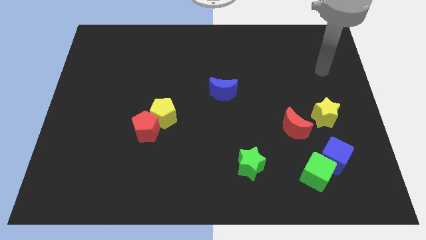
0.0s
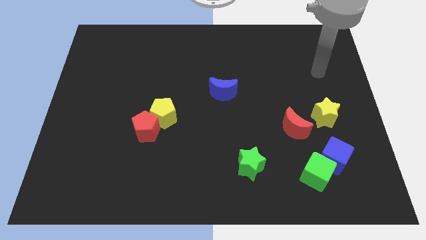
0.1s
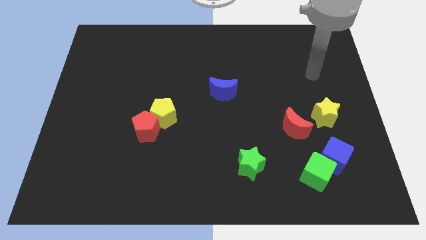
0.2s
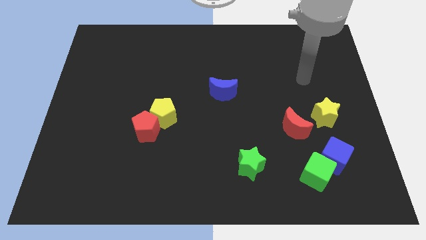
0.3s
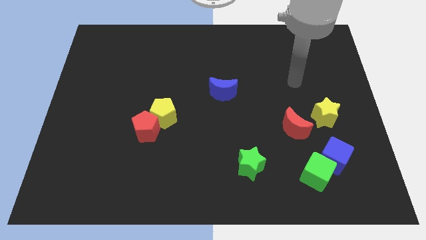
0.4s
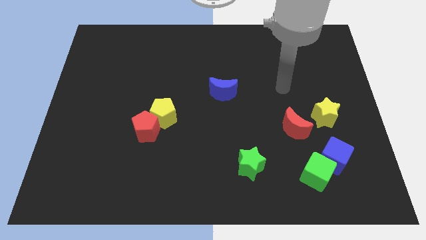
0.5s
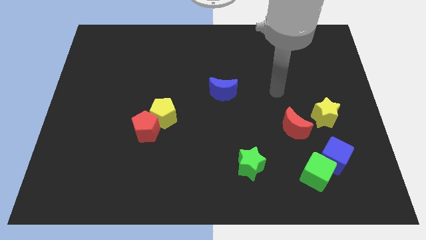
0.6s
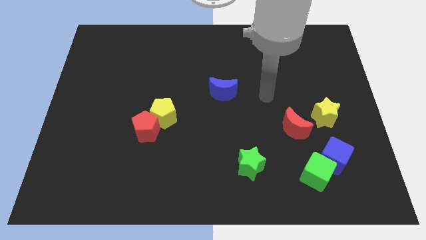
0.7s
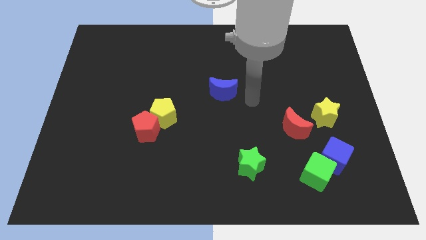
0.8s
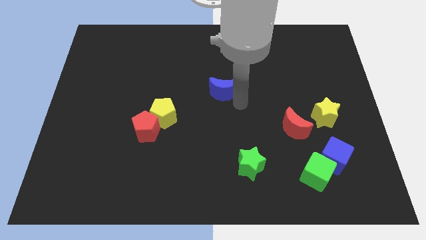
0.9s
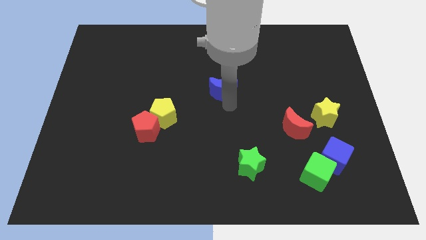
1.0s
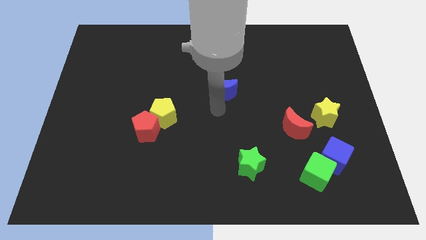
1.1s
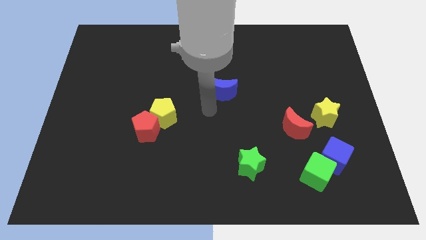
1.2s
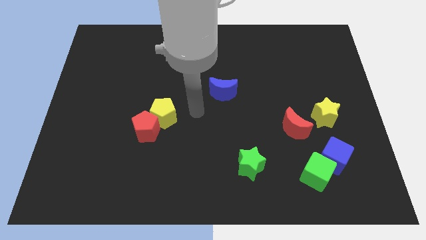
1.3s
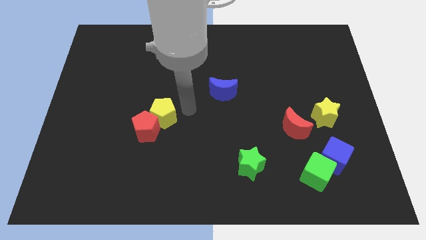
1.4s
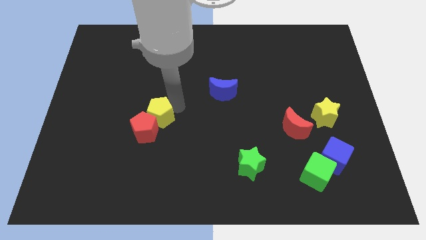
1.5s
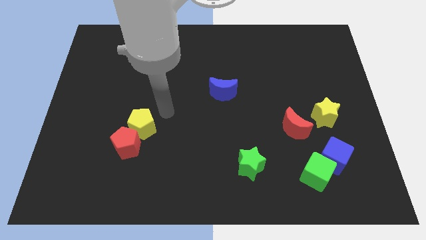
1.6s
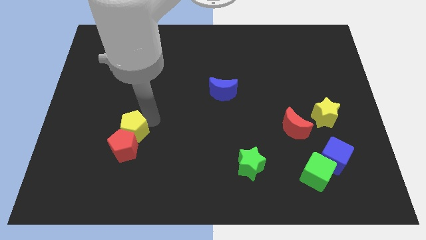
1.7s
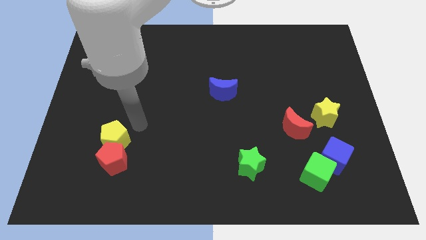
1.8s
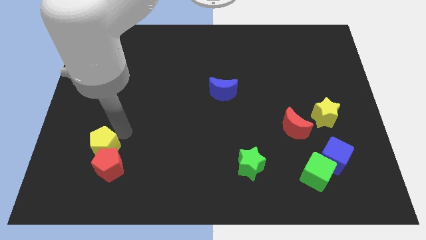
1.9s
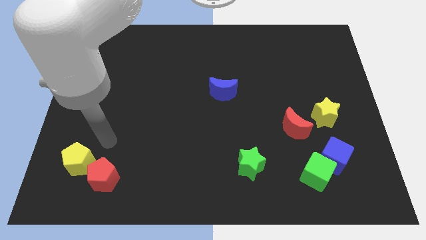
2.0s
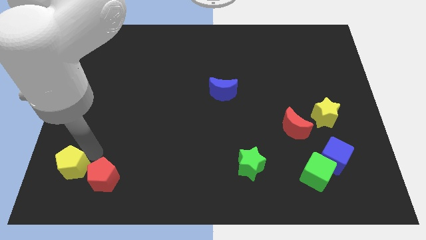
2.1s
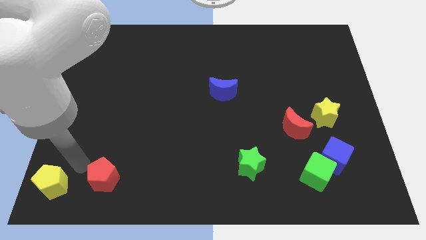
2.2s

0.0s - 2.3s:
separate the red pentagon from the yellow pentagon

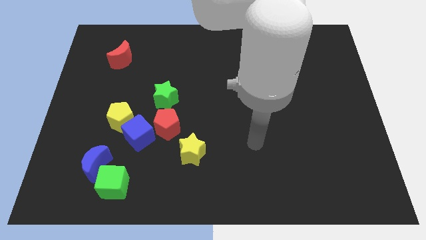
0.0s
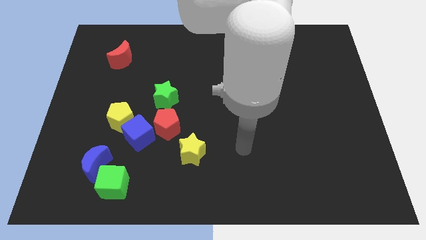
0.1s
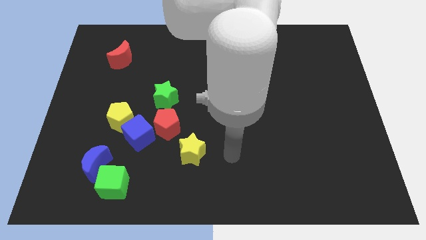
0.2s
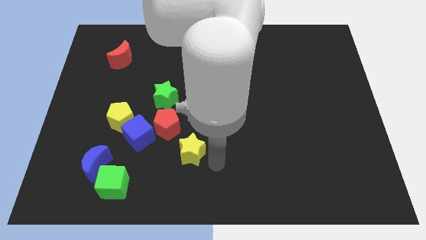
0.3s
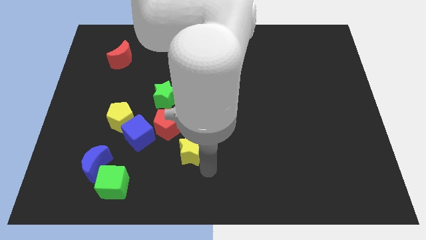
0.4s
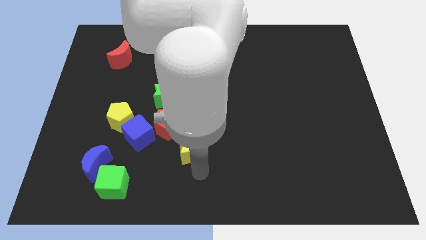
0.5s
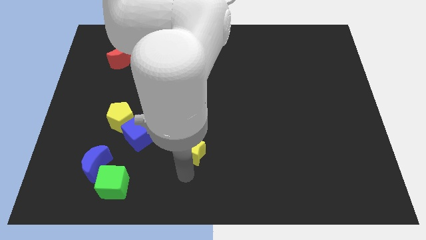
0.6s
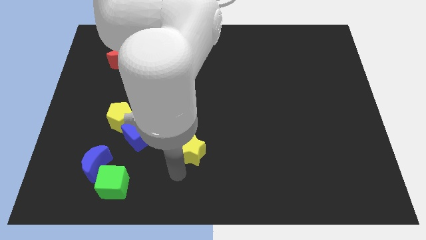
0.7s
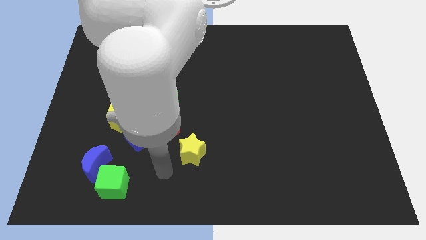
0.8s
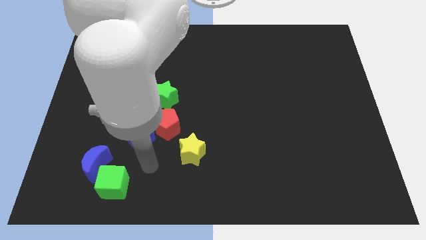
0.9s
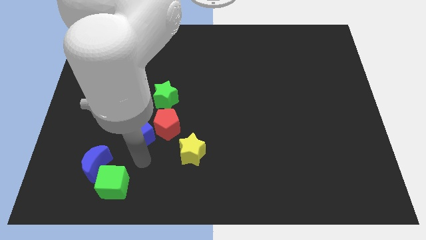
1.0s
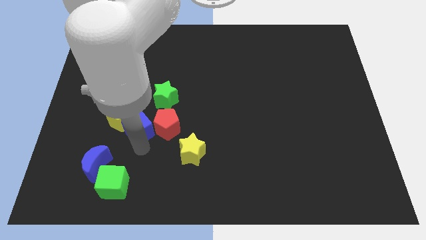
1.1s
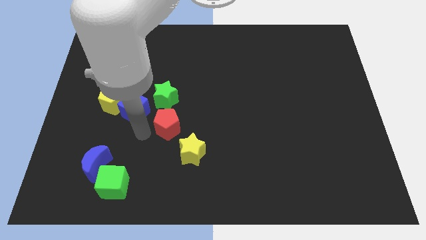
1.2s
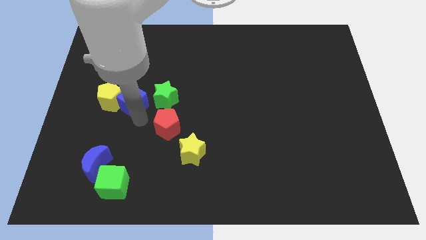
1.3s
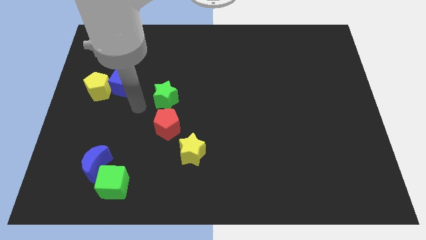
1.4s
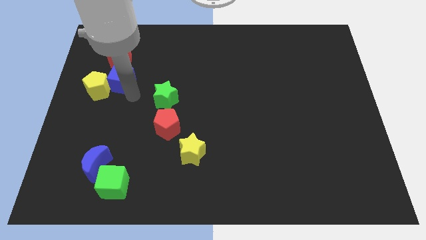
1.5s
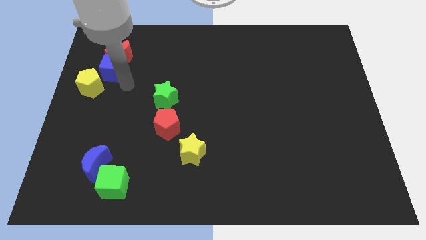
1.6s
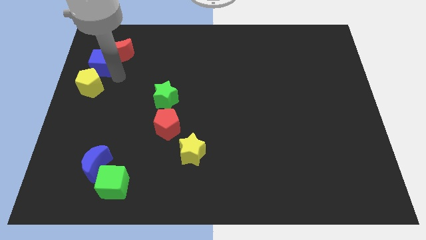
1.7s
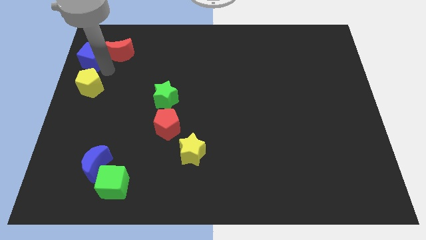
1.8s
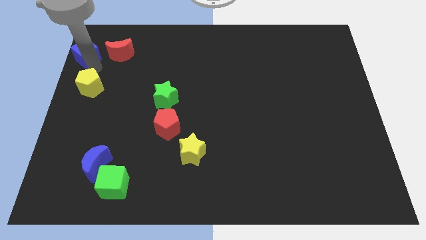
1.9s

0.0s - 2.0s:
pull the yellow pentagon apart from the blue cube

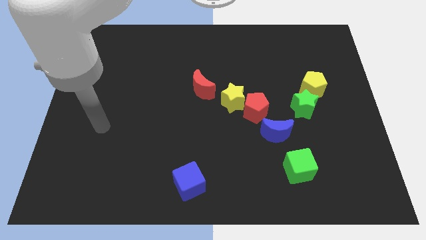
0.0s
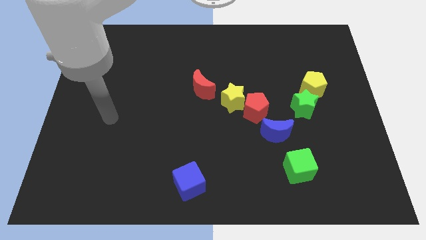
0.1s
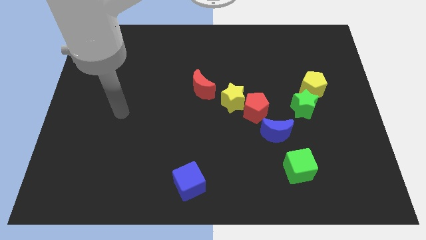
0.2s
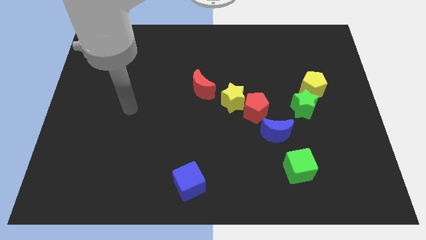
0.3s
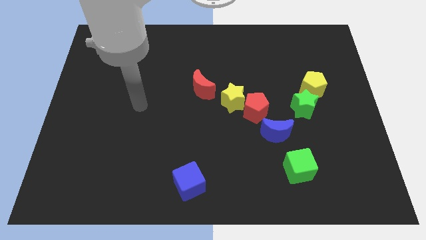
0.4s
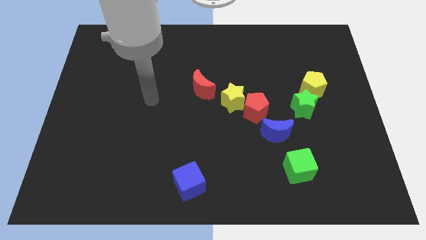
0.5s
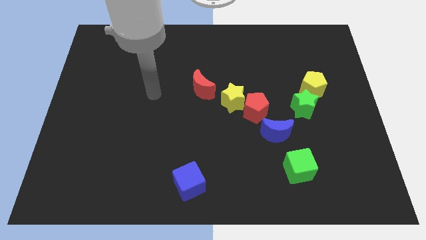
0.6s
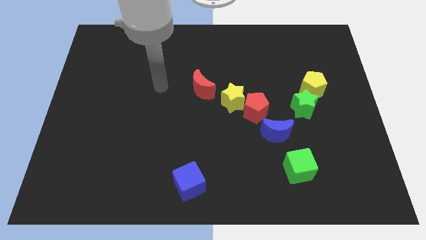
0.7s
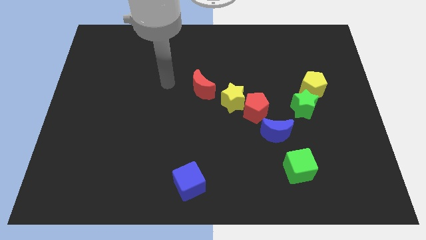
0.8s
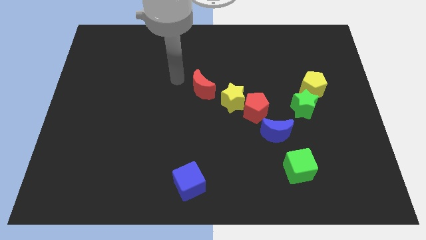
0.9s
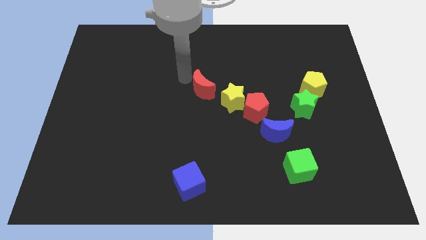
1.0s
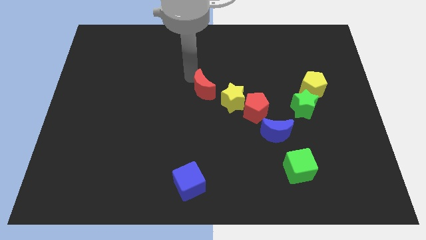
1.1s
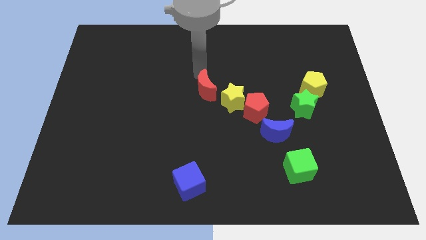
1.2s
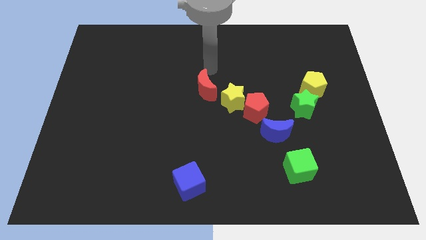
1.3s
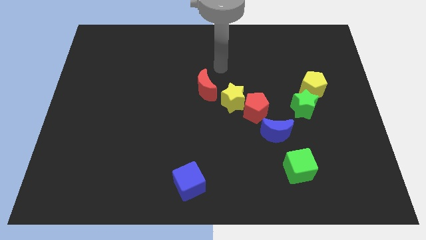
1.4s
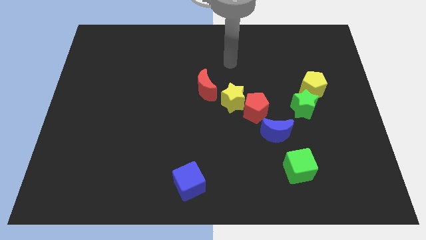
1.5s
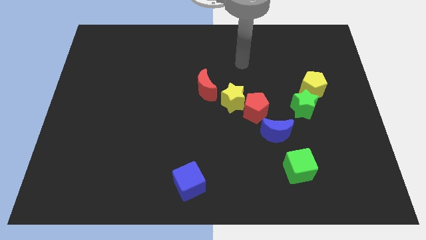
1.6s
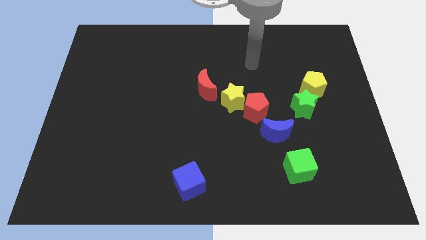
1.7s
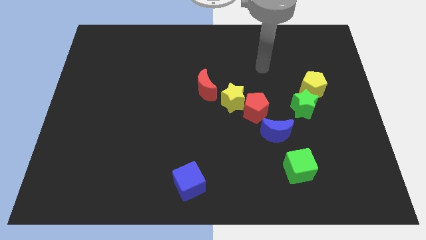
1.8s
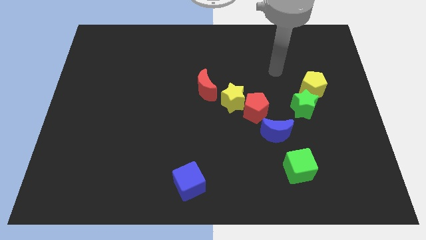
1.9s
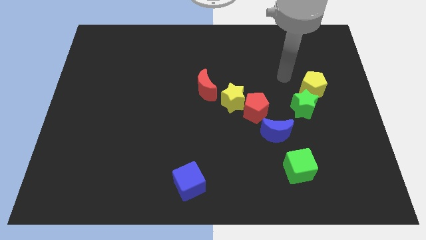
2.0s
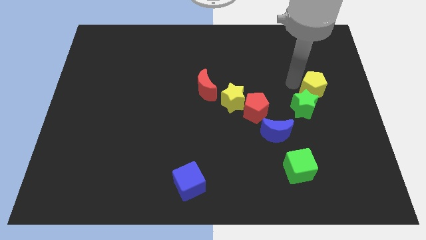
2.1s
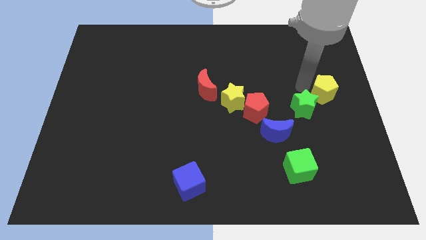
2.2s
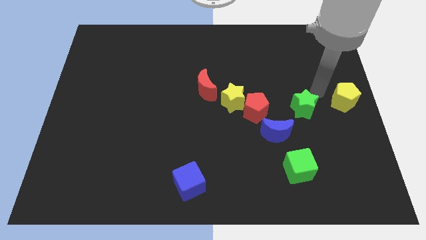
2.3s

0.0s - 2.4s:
move the green star away from the yellow pentagon

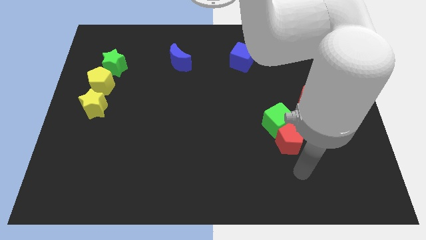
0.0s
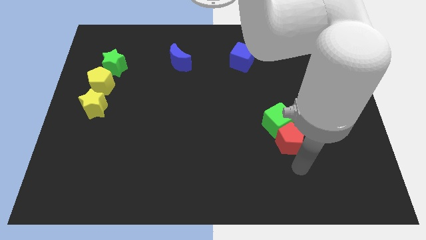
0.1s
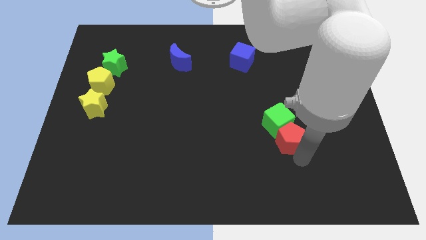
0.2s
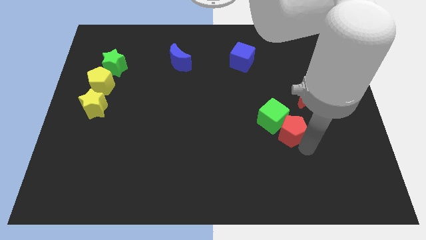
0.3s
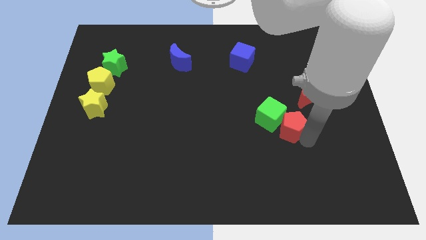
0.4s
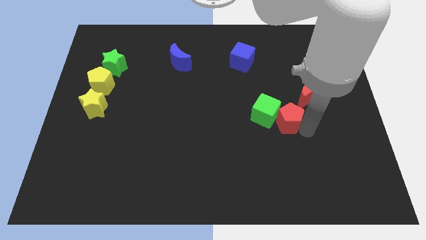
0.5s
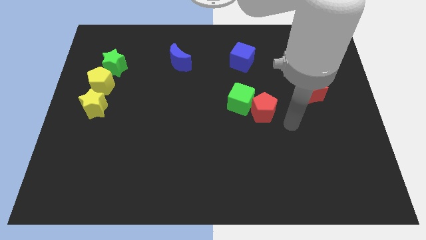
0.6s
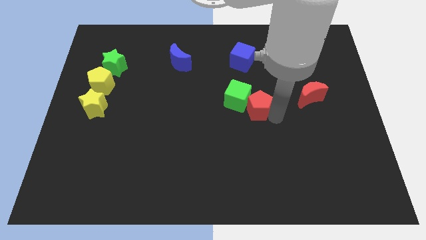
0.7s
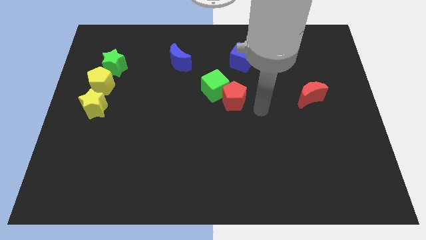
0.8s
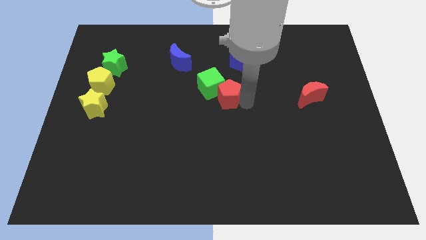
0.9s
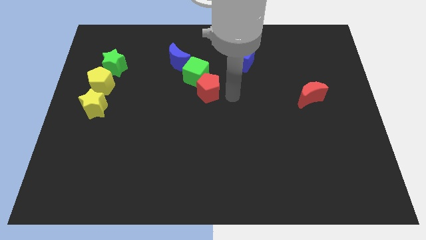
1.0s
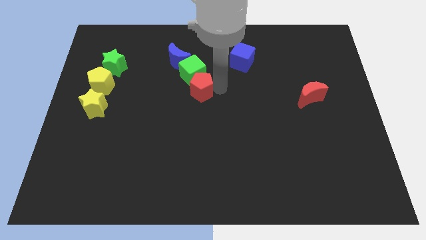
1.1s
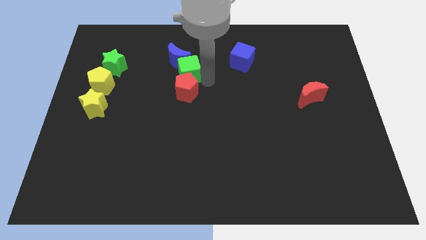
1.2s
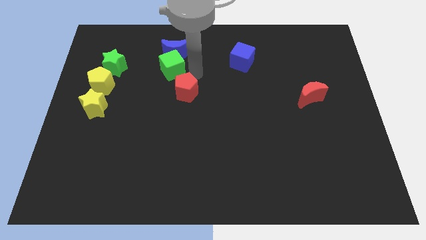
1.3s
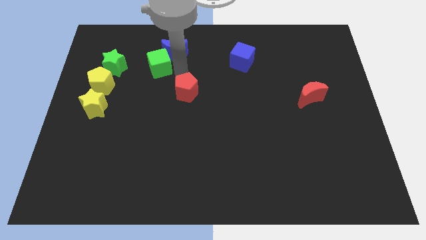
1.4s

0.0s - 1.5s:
pull the red pentagon apart from the green cube

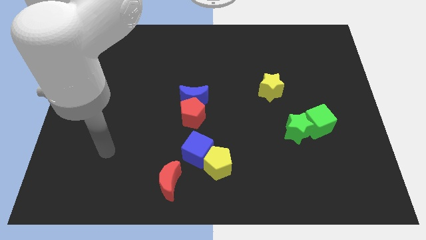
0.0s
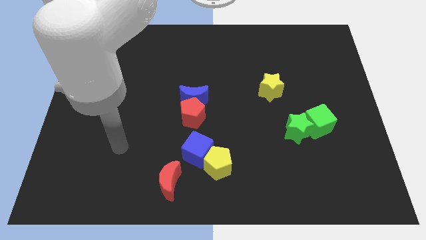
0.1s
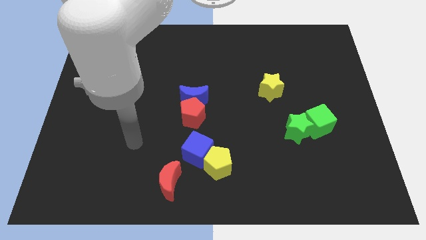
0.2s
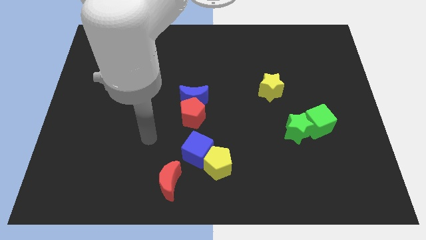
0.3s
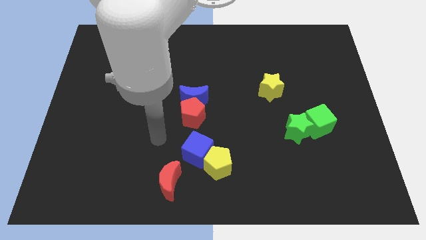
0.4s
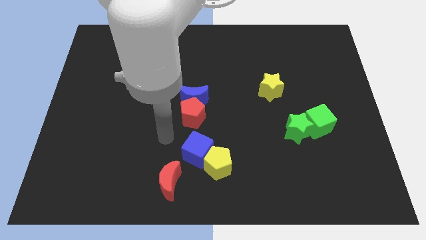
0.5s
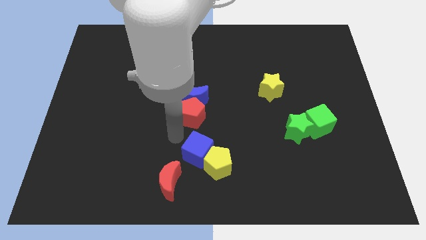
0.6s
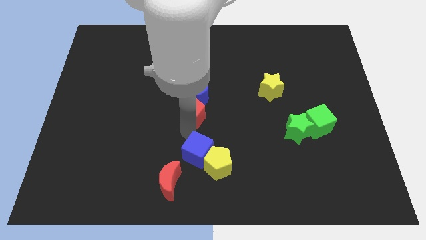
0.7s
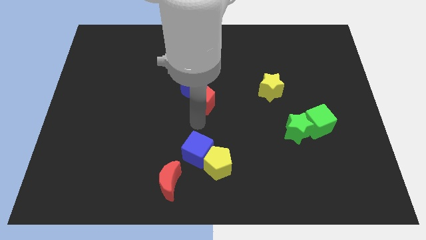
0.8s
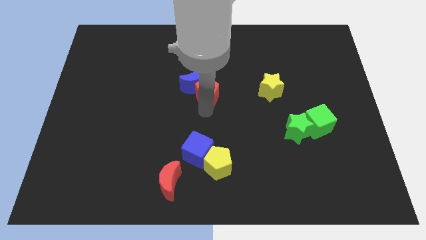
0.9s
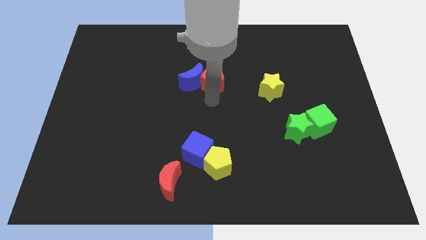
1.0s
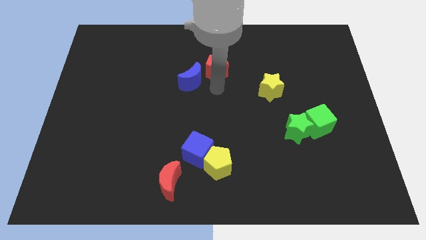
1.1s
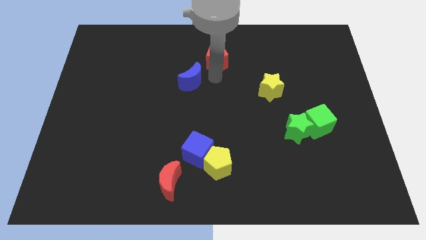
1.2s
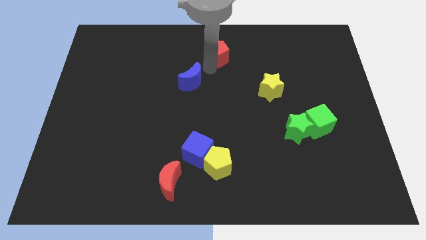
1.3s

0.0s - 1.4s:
move the blue moon away from the red pentagon
